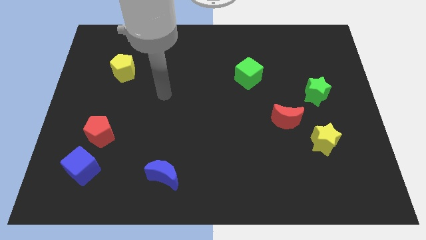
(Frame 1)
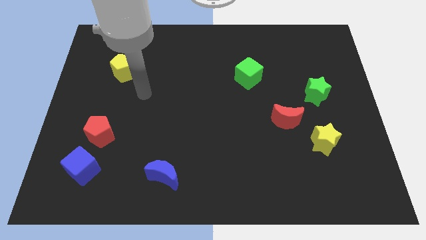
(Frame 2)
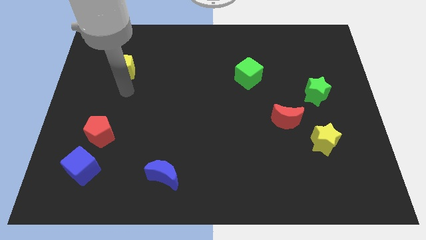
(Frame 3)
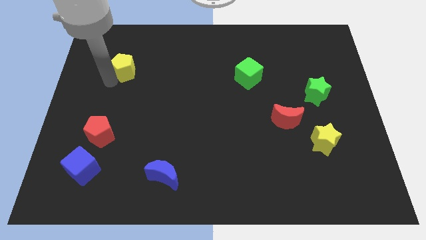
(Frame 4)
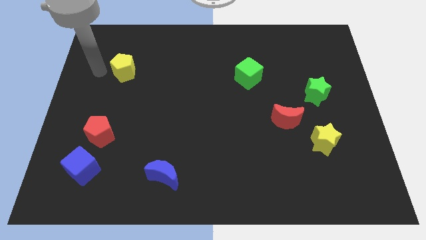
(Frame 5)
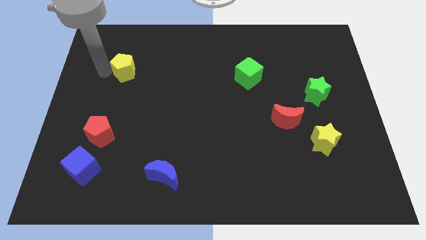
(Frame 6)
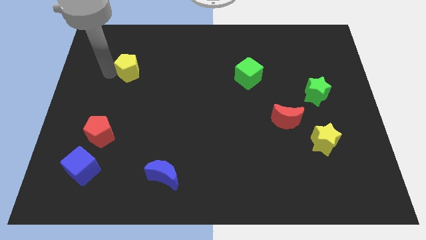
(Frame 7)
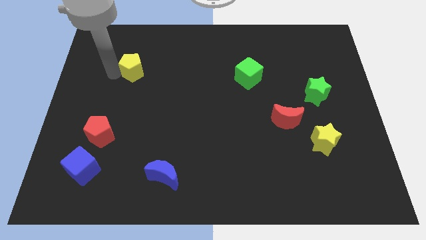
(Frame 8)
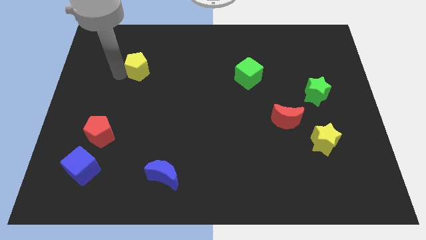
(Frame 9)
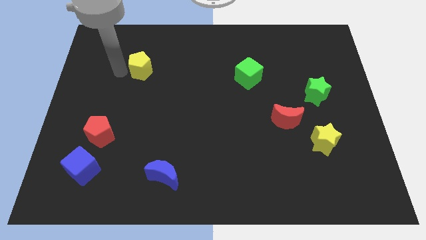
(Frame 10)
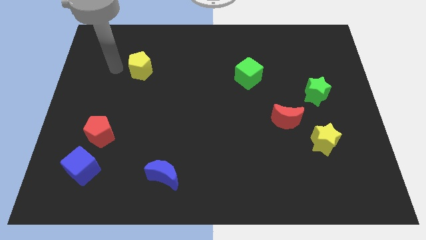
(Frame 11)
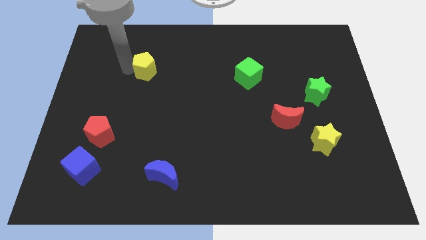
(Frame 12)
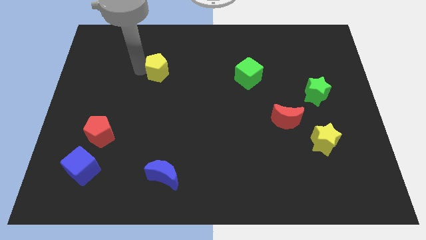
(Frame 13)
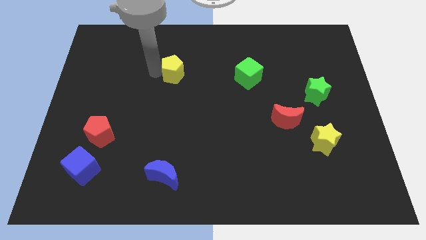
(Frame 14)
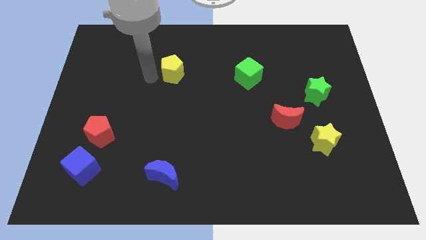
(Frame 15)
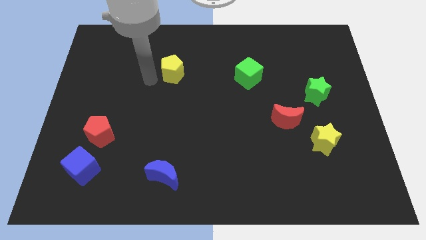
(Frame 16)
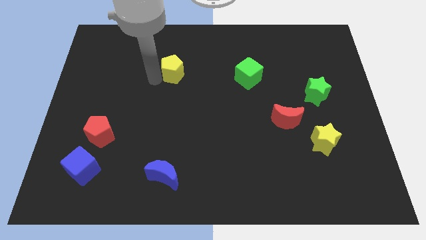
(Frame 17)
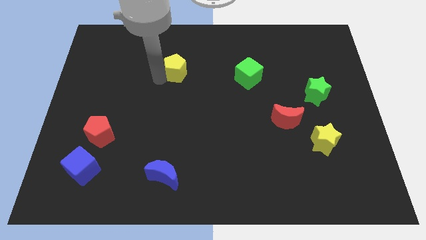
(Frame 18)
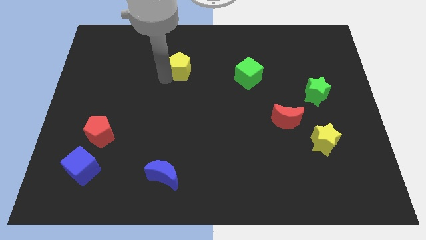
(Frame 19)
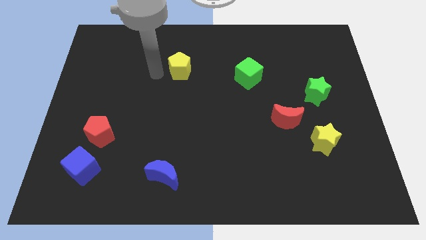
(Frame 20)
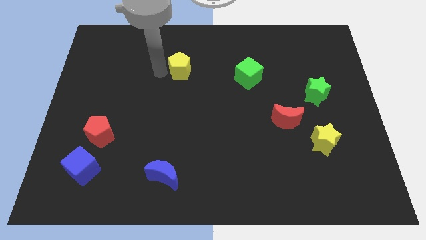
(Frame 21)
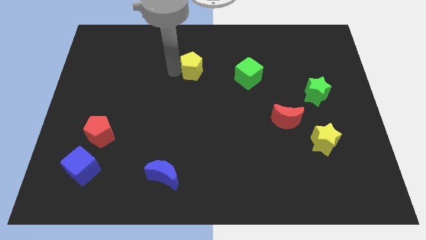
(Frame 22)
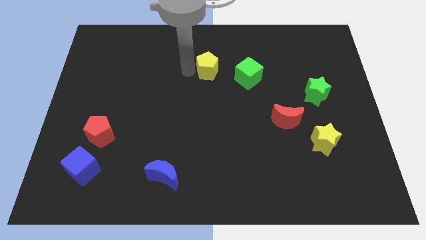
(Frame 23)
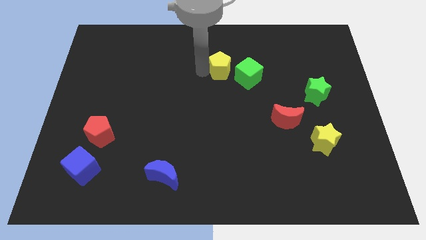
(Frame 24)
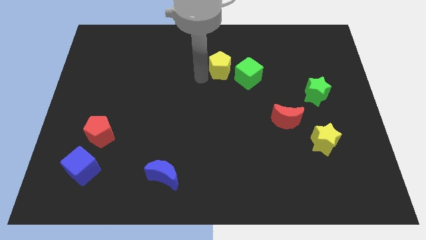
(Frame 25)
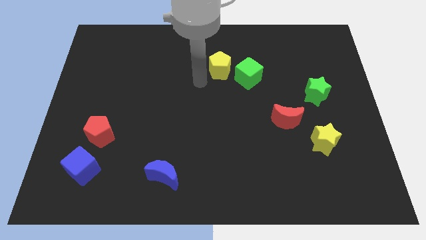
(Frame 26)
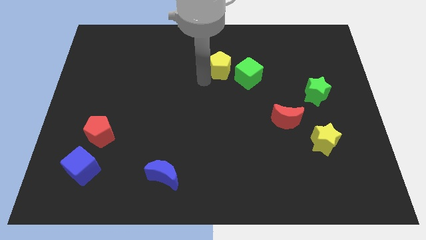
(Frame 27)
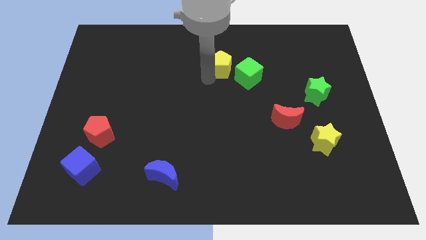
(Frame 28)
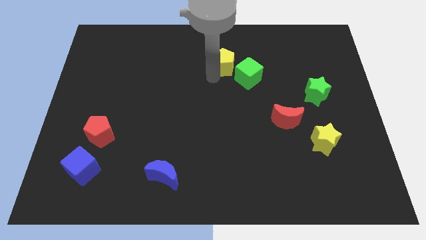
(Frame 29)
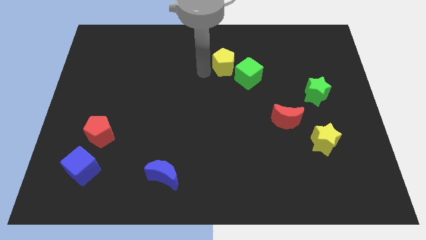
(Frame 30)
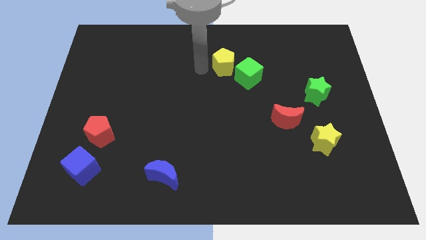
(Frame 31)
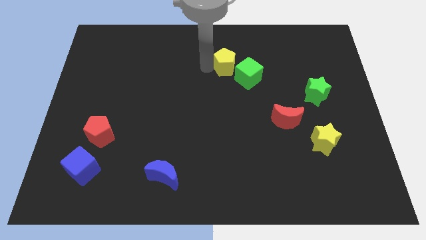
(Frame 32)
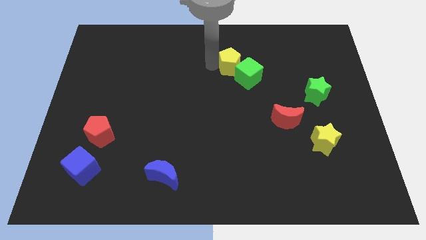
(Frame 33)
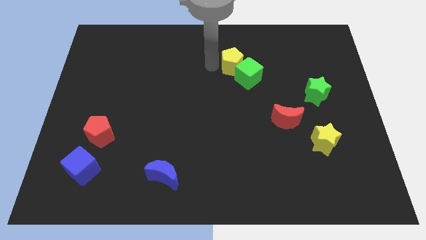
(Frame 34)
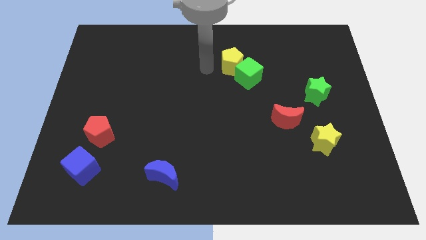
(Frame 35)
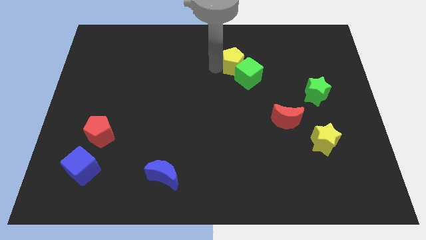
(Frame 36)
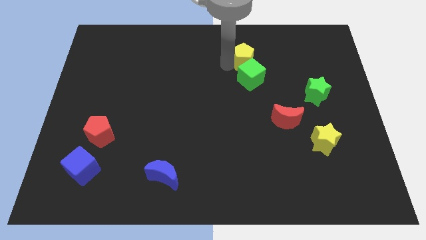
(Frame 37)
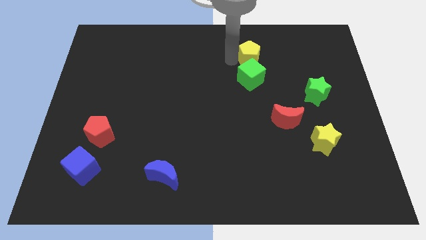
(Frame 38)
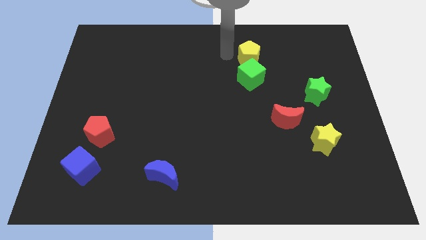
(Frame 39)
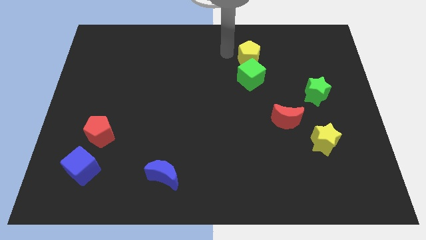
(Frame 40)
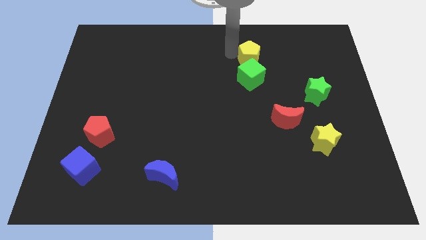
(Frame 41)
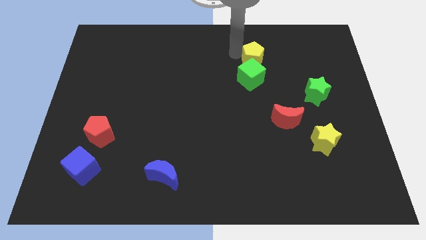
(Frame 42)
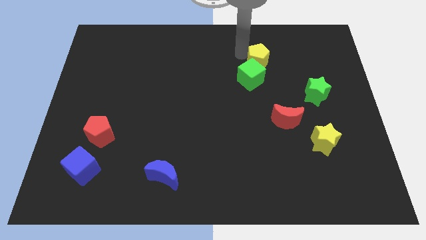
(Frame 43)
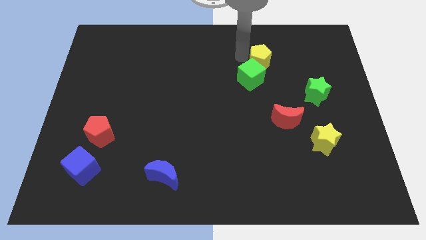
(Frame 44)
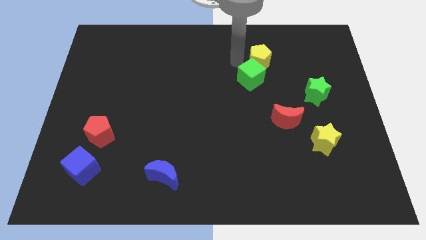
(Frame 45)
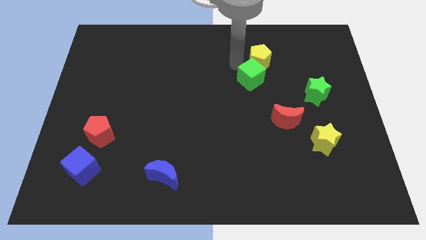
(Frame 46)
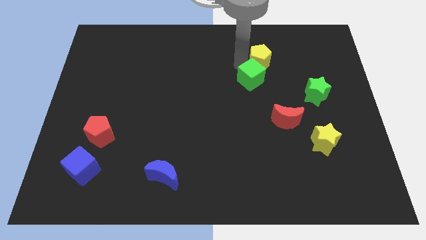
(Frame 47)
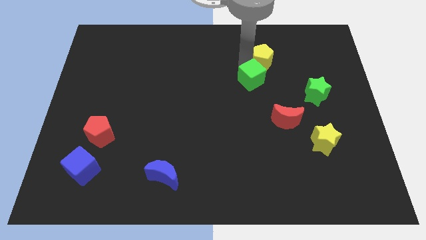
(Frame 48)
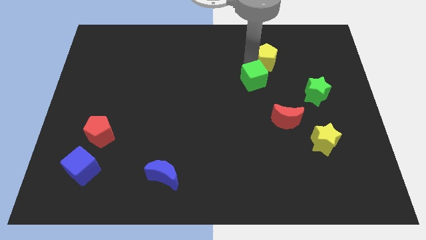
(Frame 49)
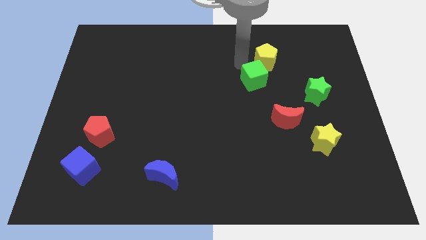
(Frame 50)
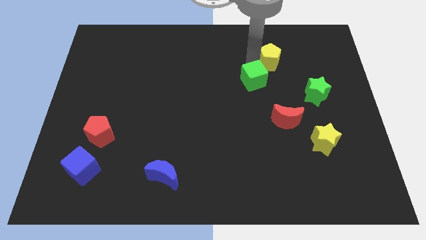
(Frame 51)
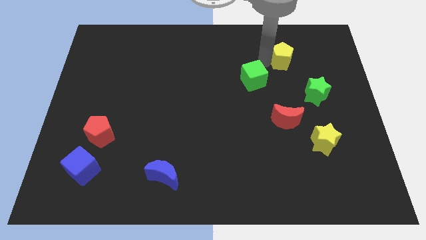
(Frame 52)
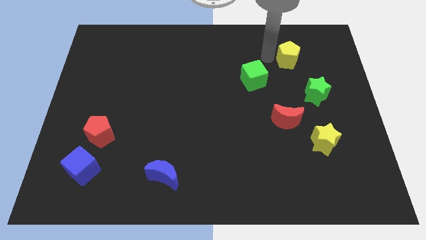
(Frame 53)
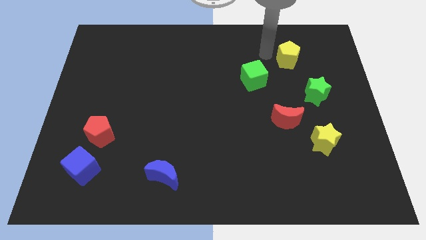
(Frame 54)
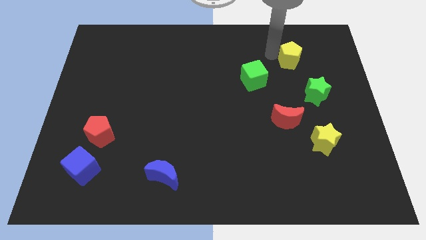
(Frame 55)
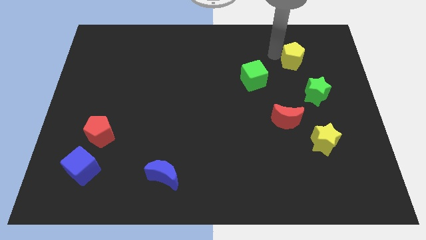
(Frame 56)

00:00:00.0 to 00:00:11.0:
push the yellow pentagon to the top of the green star

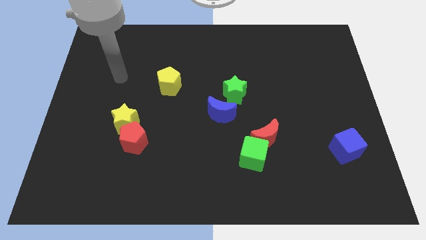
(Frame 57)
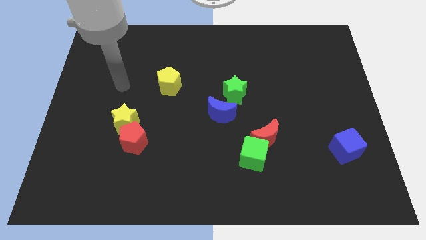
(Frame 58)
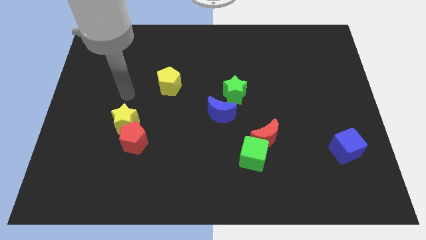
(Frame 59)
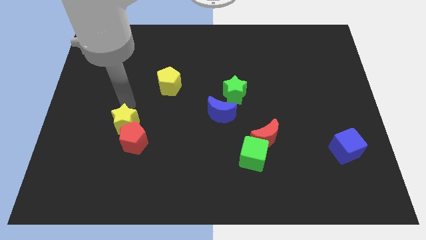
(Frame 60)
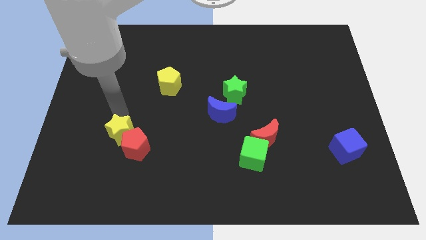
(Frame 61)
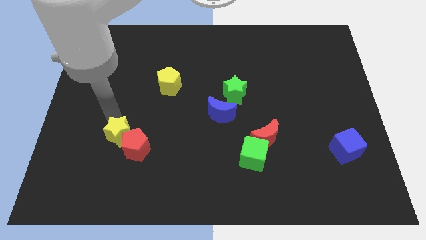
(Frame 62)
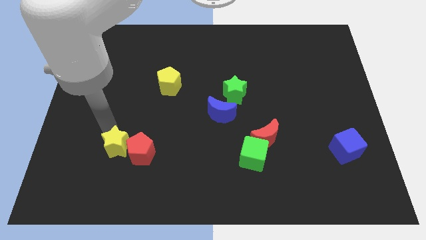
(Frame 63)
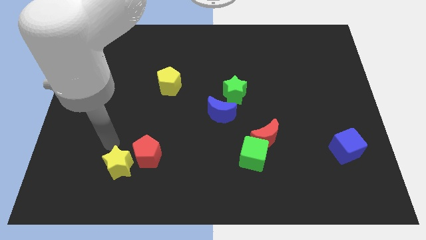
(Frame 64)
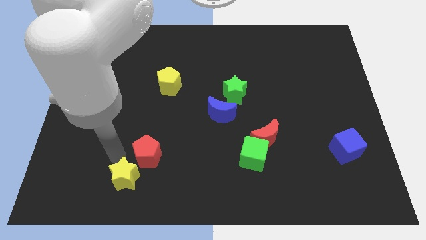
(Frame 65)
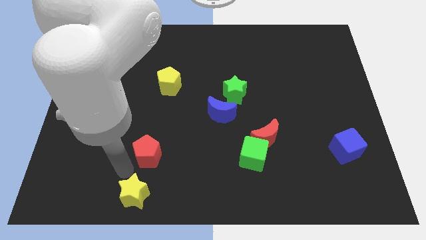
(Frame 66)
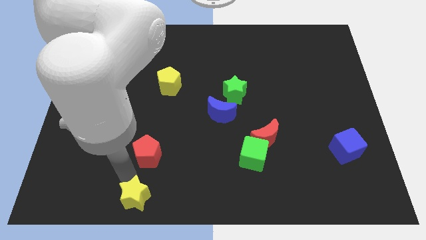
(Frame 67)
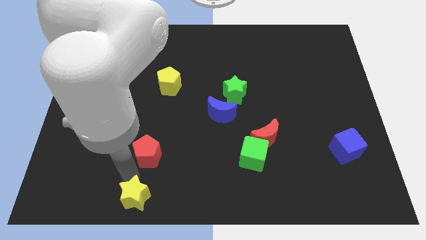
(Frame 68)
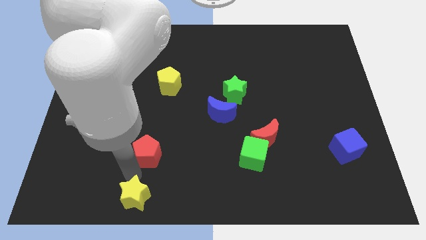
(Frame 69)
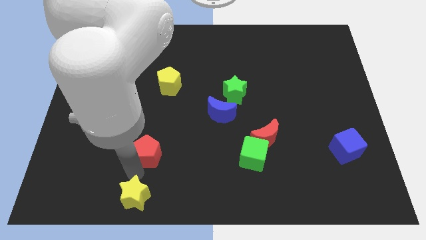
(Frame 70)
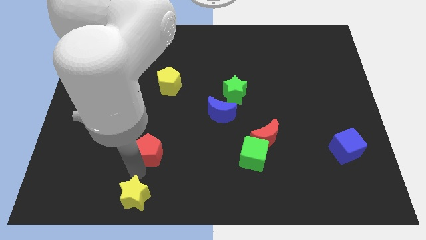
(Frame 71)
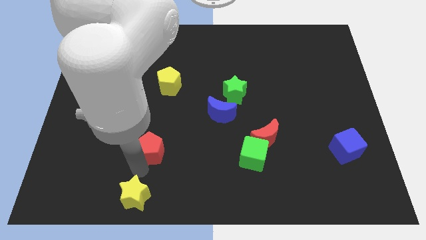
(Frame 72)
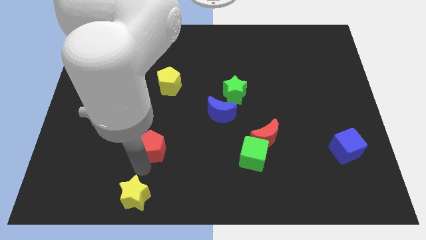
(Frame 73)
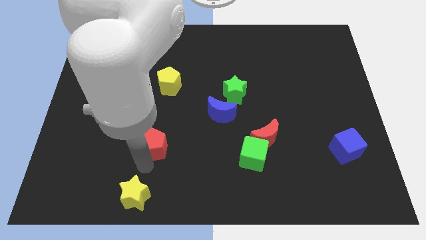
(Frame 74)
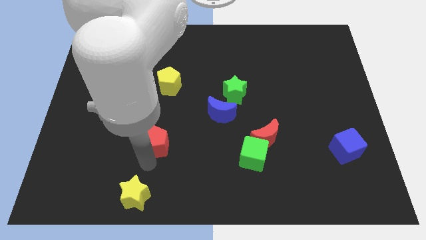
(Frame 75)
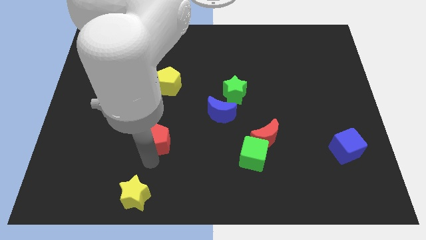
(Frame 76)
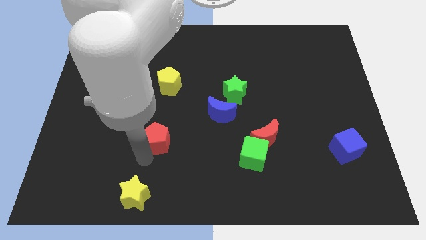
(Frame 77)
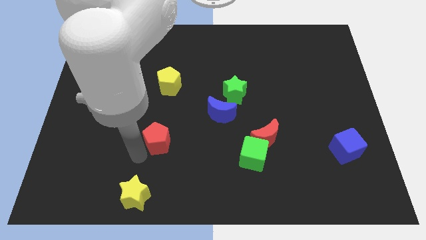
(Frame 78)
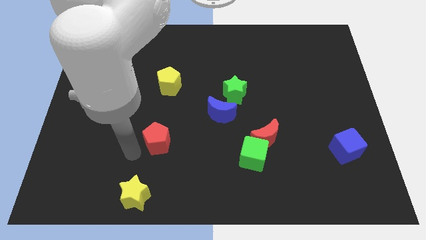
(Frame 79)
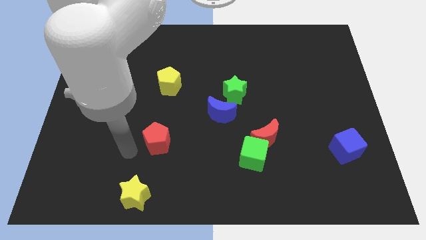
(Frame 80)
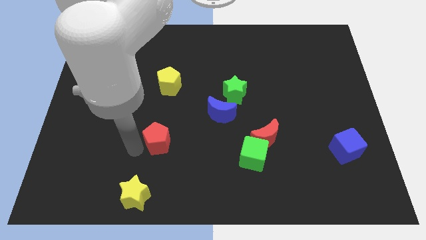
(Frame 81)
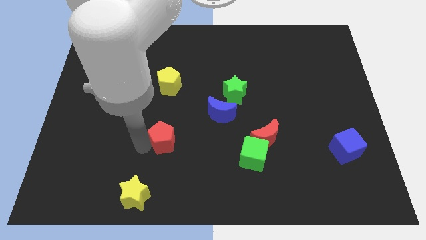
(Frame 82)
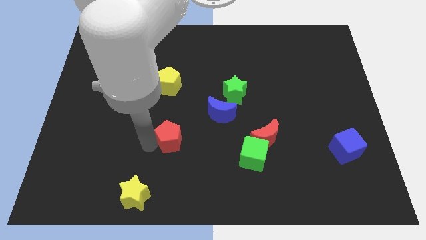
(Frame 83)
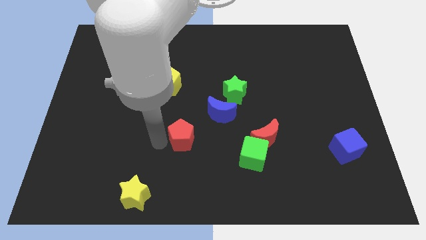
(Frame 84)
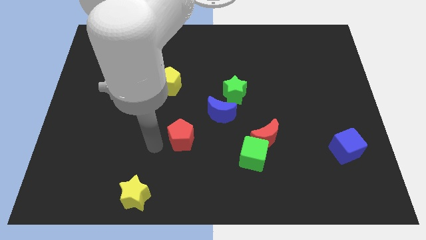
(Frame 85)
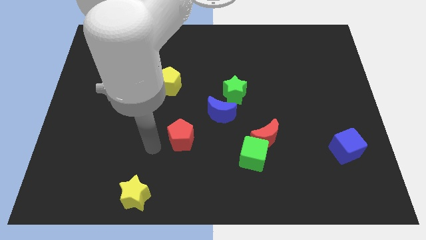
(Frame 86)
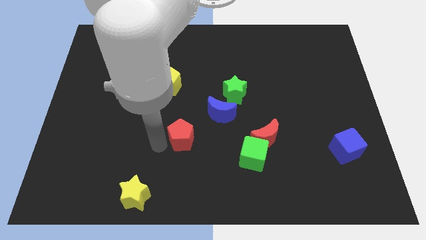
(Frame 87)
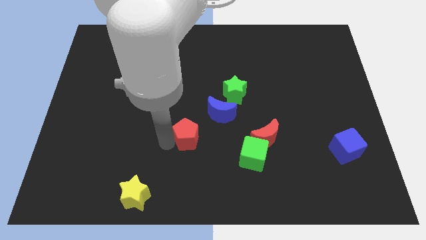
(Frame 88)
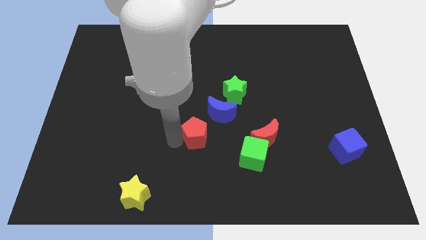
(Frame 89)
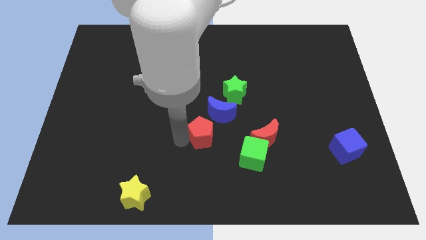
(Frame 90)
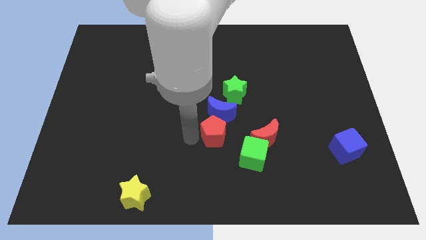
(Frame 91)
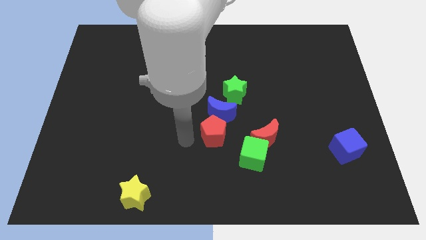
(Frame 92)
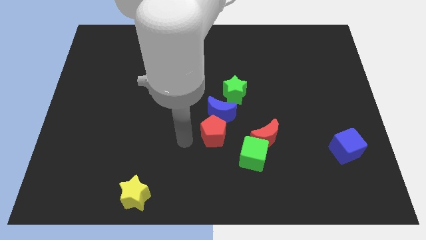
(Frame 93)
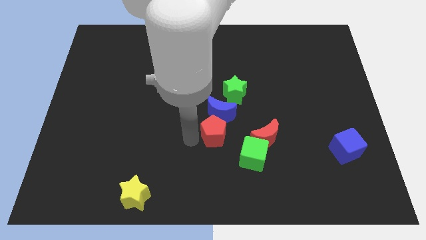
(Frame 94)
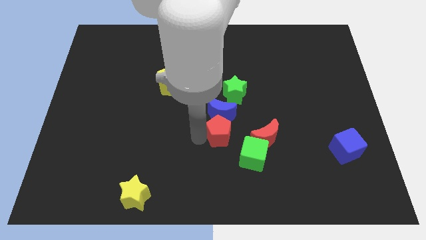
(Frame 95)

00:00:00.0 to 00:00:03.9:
move the red pentagon to the bottom of the green star
